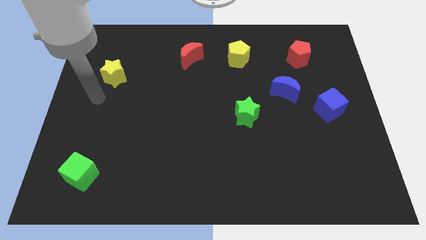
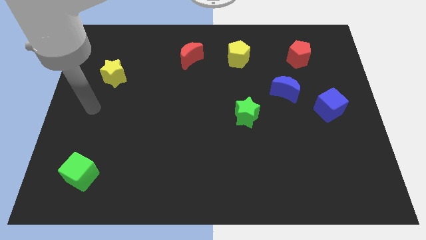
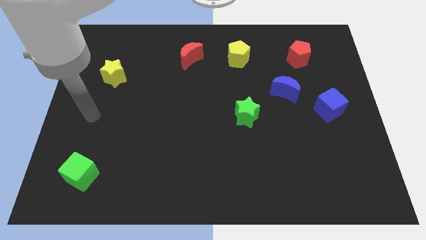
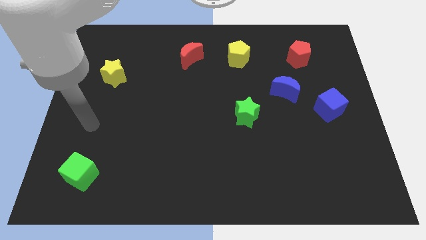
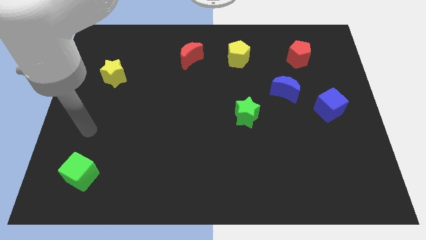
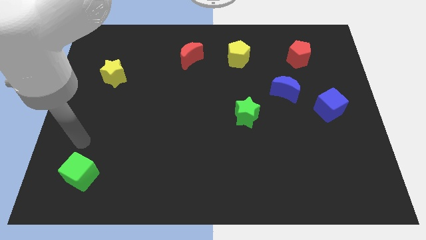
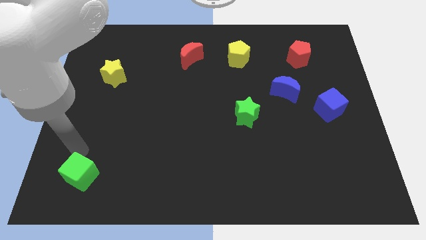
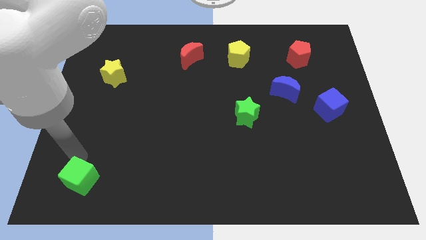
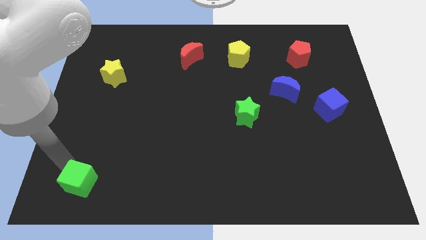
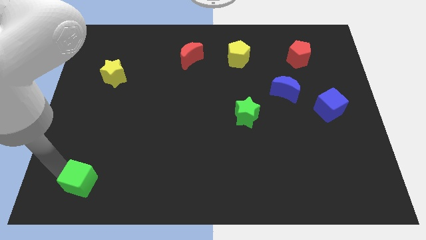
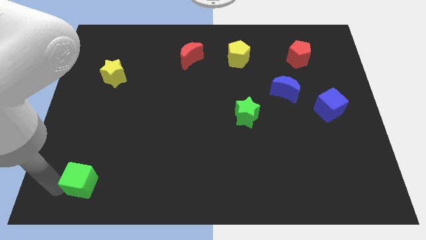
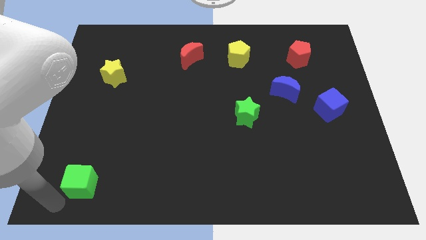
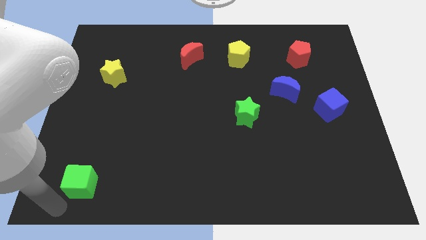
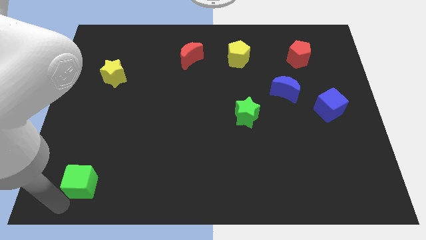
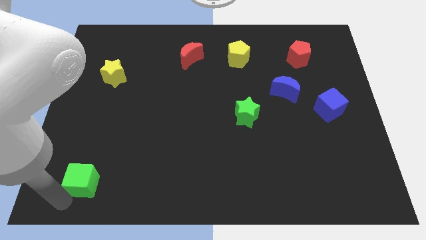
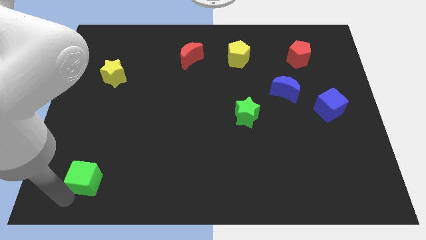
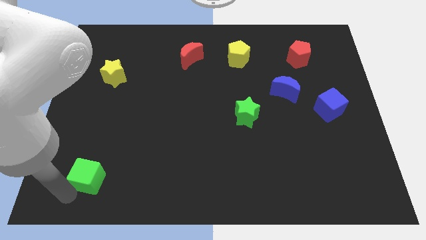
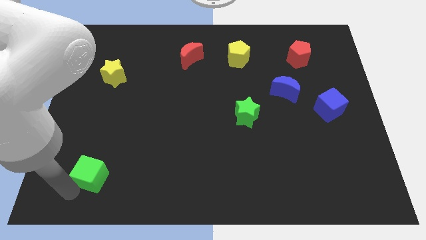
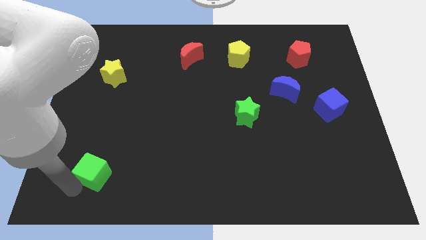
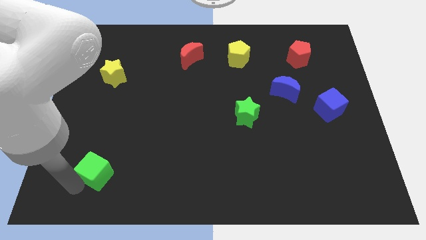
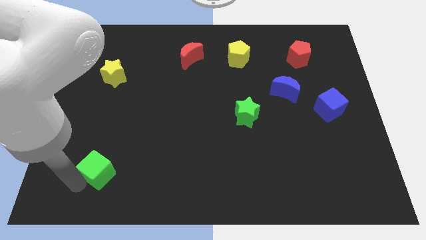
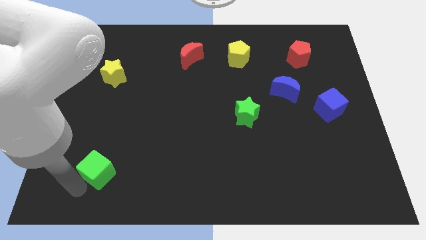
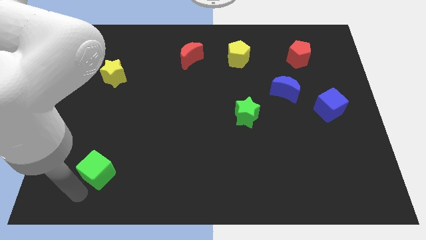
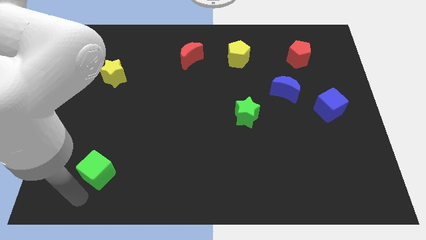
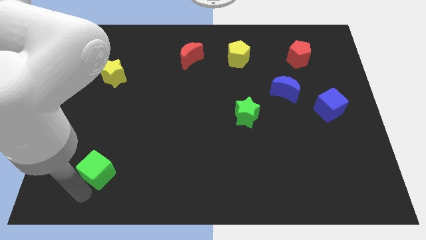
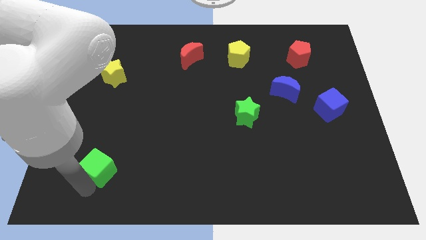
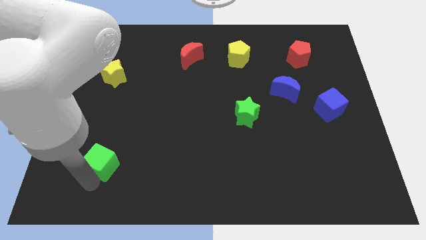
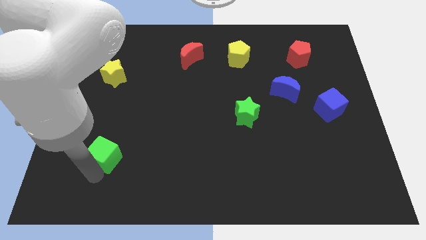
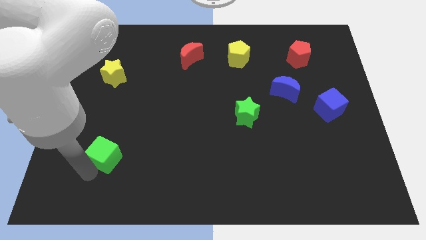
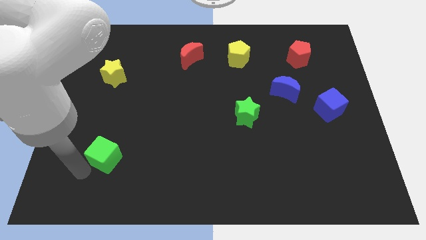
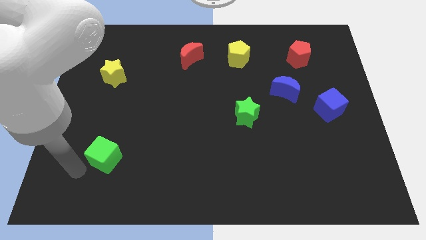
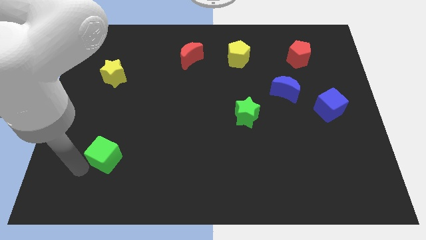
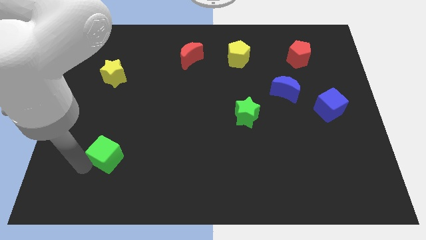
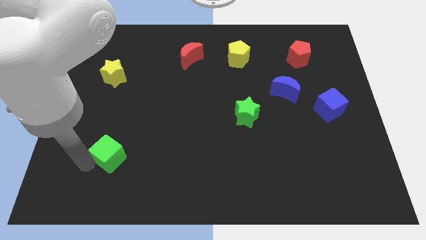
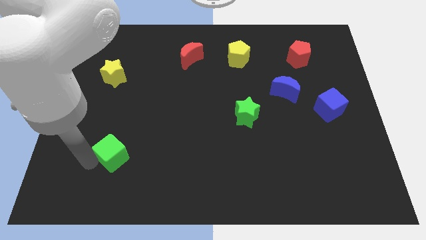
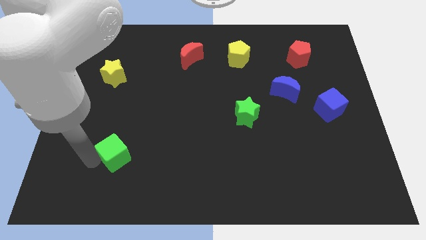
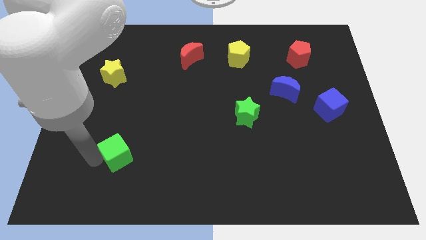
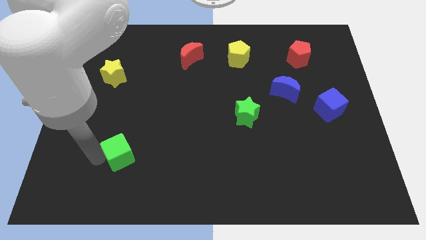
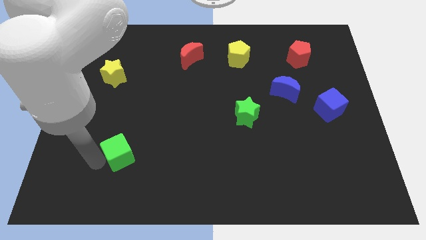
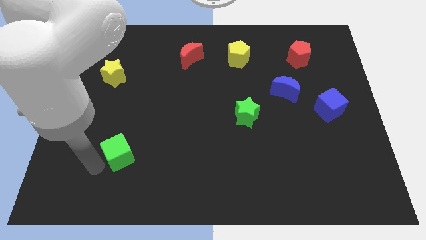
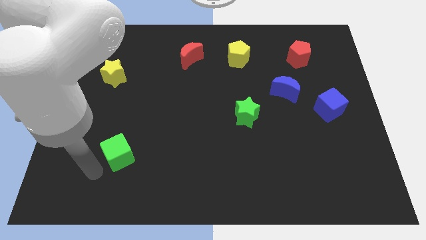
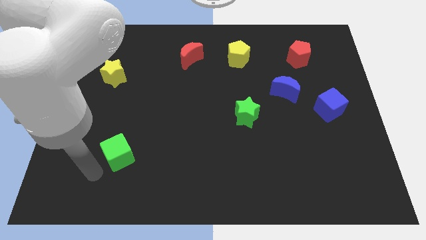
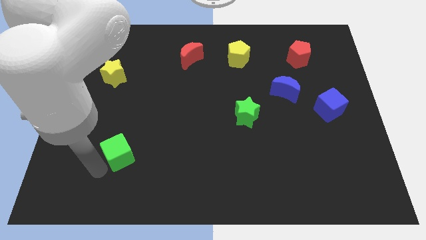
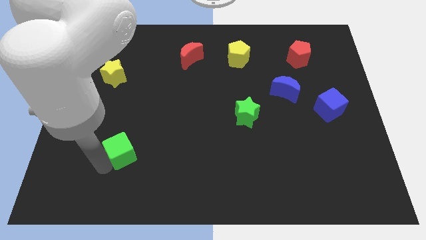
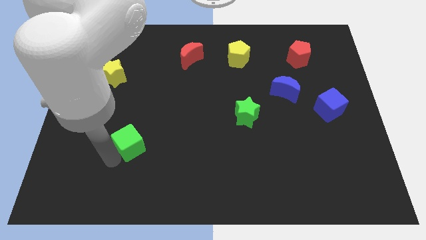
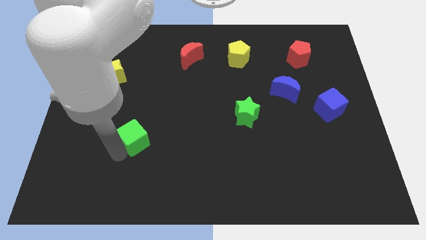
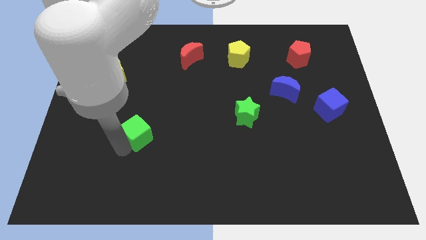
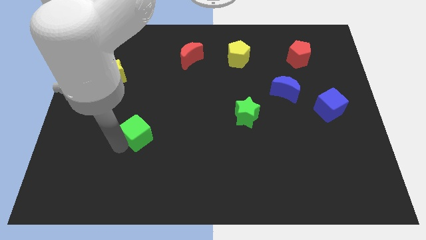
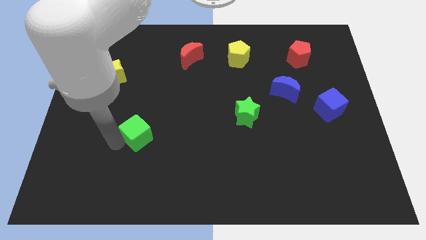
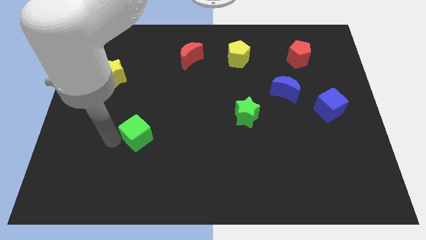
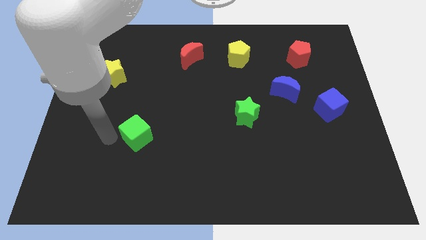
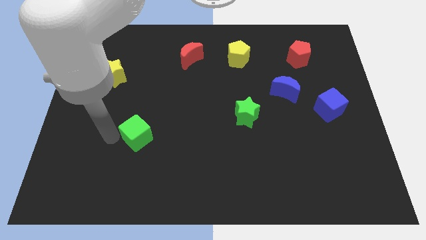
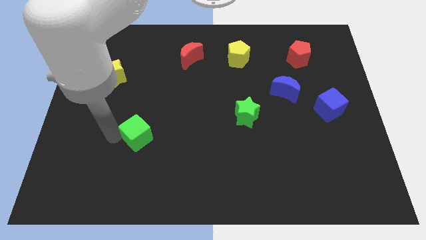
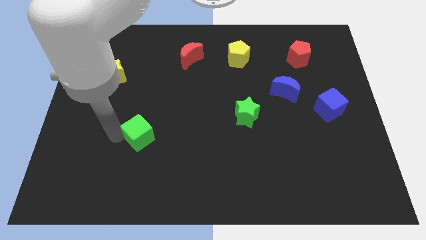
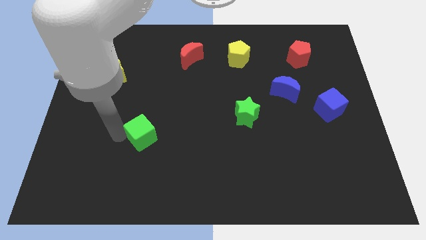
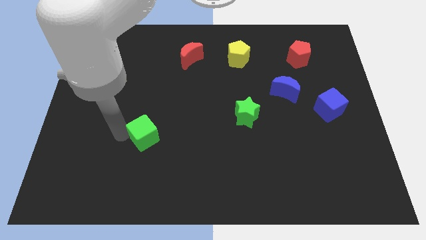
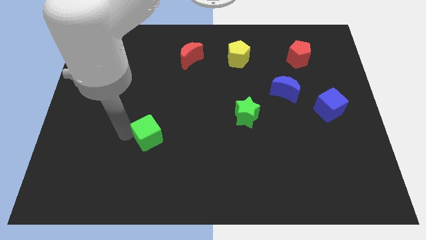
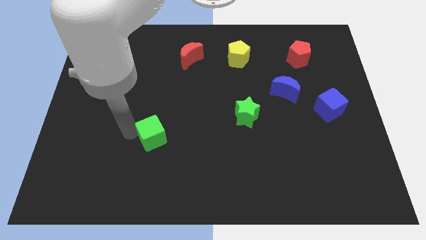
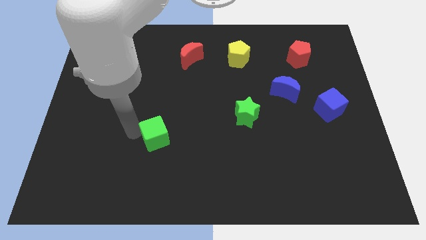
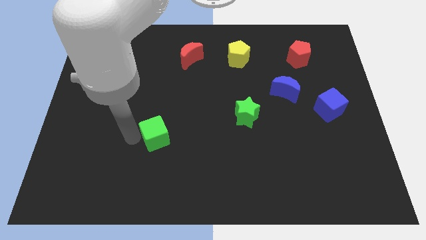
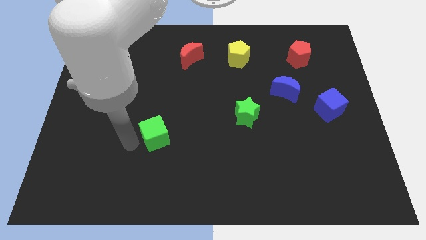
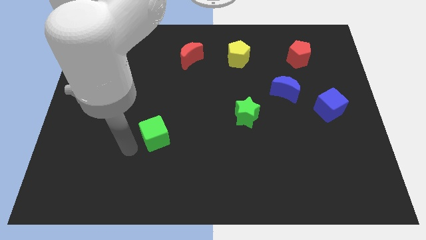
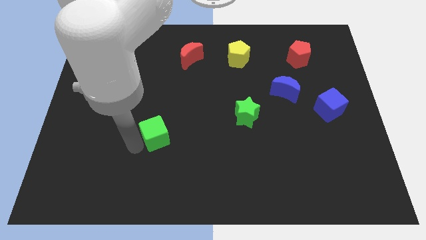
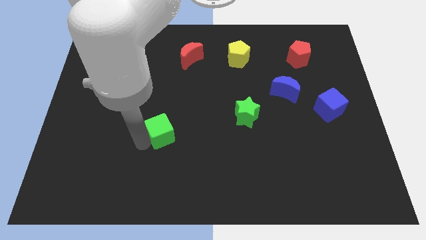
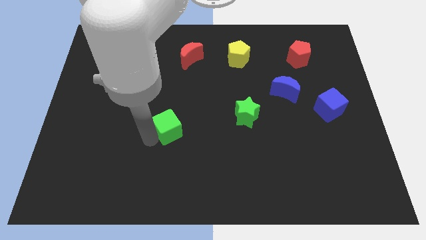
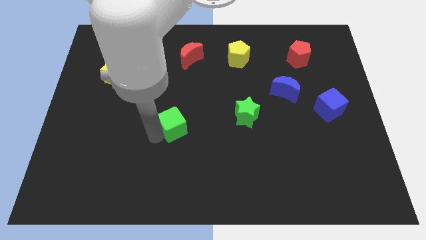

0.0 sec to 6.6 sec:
put the green cube to the center
